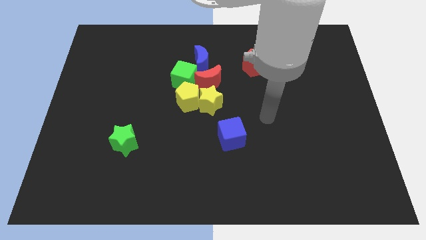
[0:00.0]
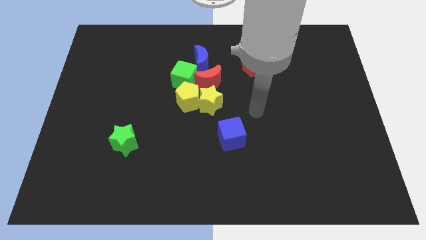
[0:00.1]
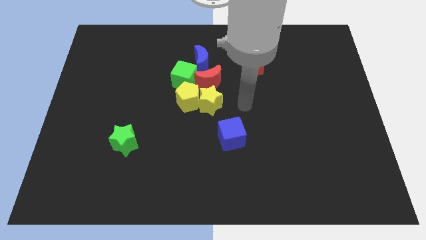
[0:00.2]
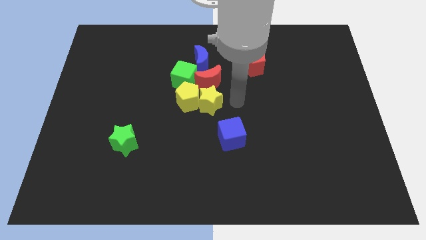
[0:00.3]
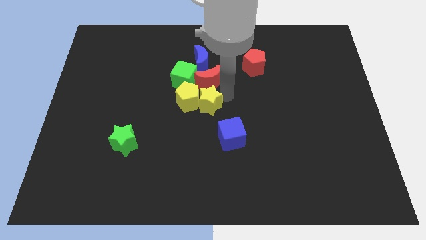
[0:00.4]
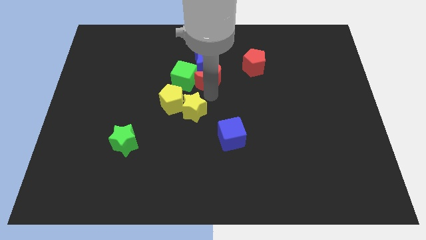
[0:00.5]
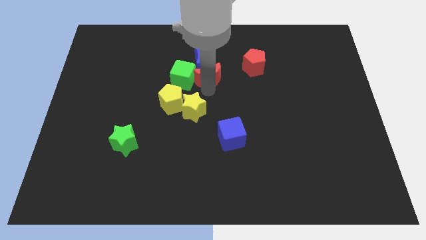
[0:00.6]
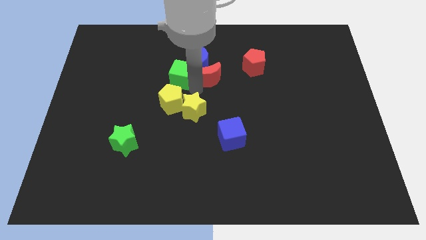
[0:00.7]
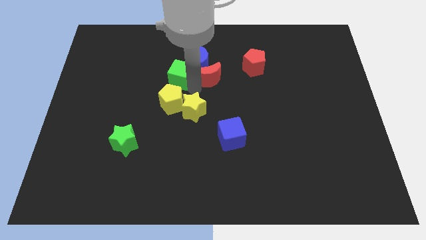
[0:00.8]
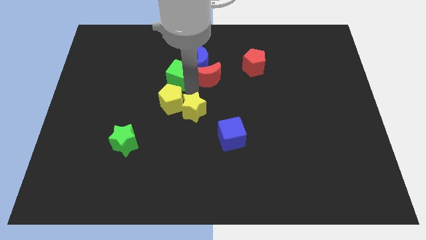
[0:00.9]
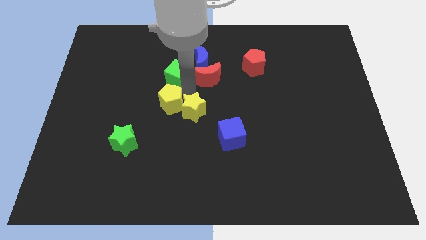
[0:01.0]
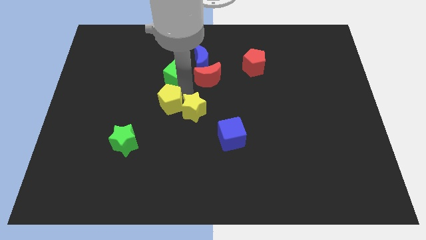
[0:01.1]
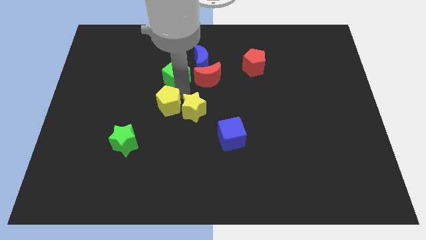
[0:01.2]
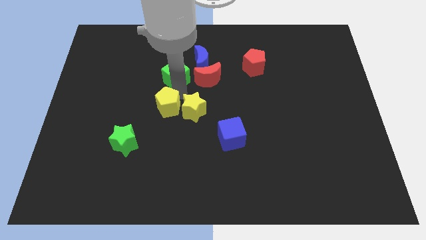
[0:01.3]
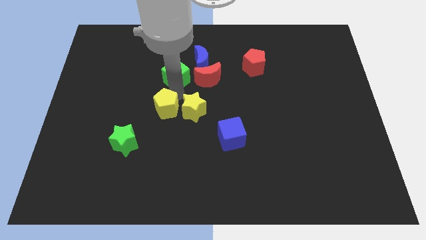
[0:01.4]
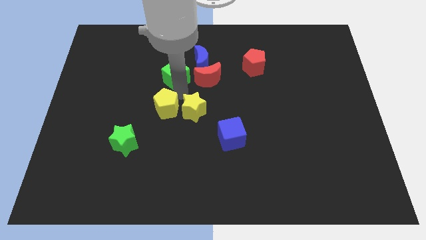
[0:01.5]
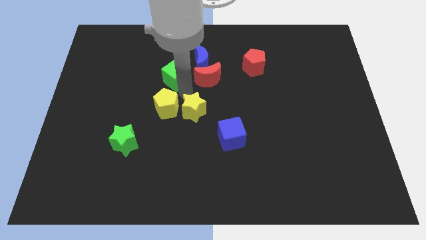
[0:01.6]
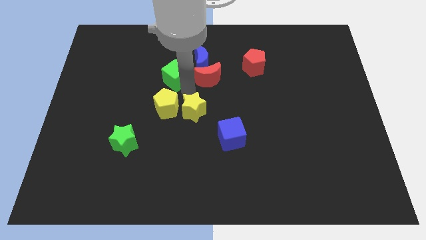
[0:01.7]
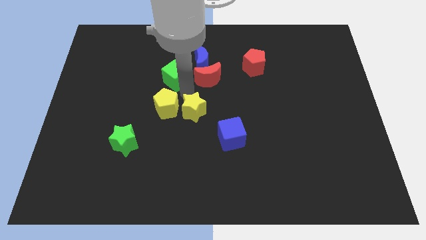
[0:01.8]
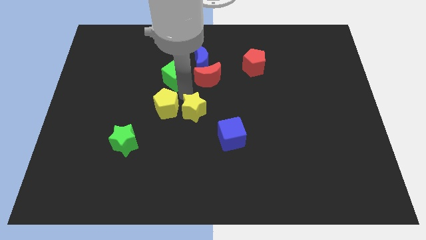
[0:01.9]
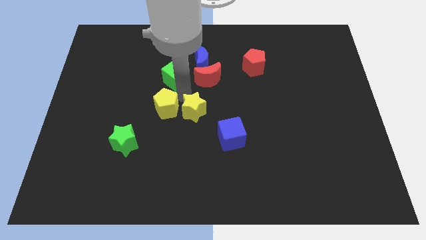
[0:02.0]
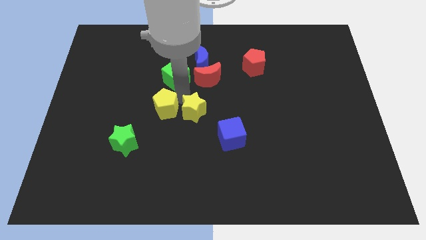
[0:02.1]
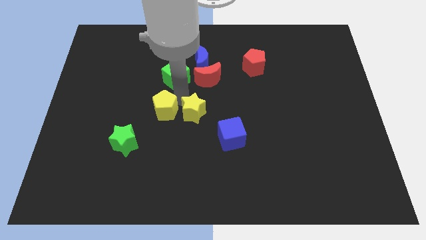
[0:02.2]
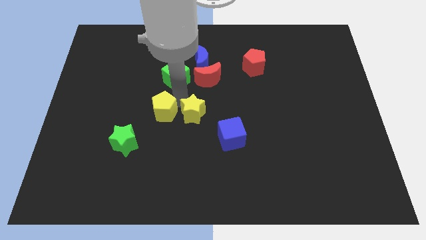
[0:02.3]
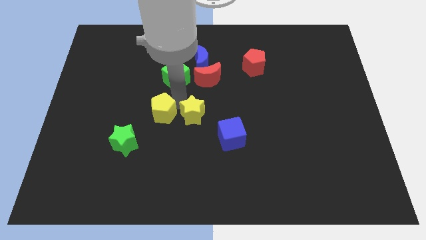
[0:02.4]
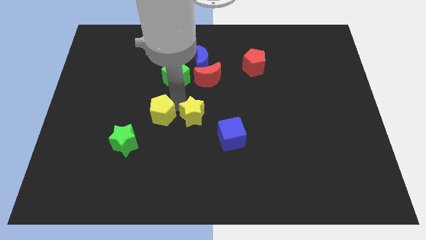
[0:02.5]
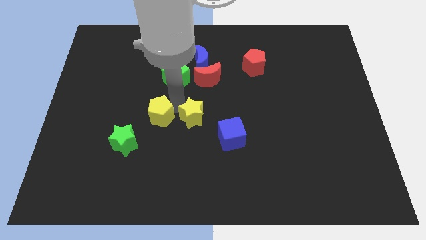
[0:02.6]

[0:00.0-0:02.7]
move the yellow pentagon away from the group of blocks

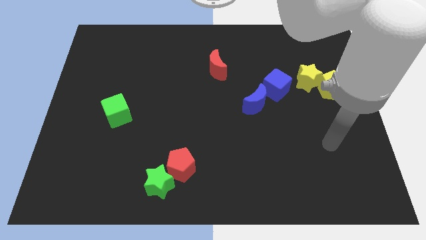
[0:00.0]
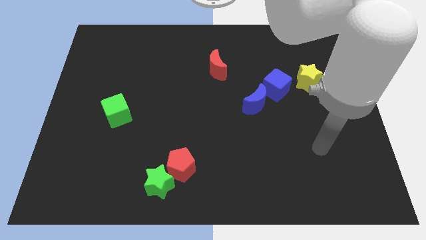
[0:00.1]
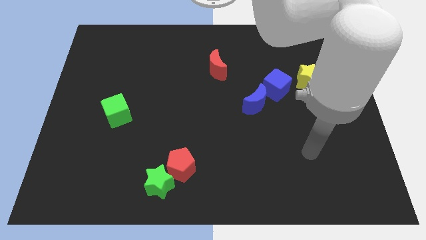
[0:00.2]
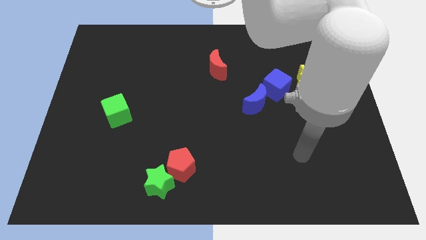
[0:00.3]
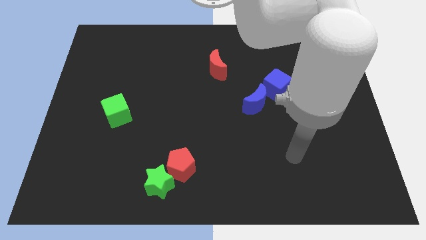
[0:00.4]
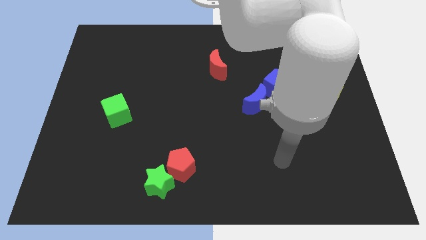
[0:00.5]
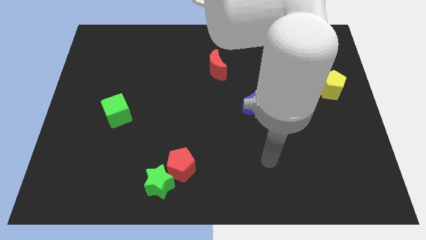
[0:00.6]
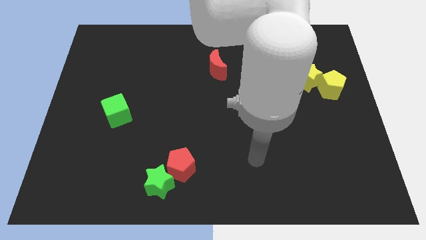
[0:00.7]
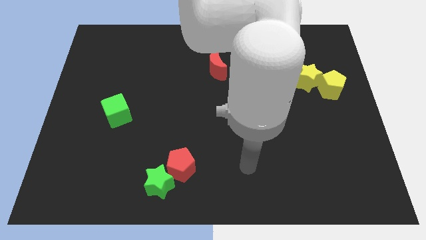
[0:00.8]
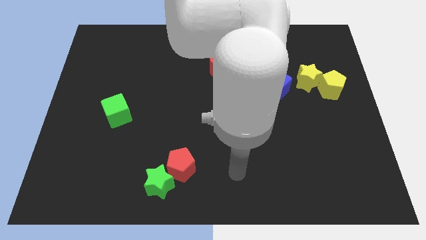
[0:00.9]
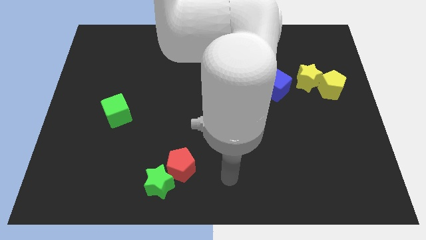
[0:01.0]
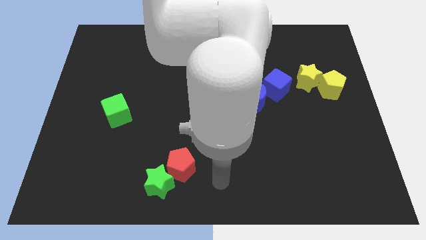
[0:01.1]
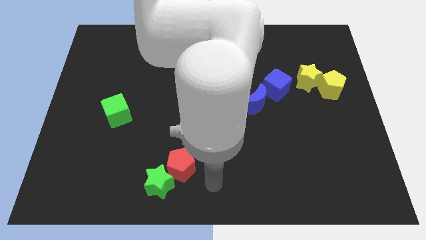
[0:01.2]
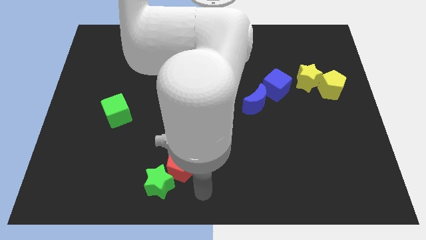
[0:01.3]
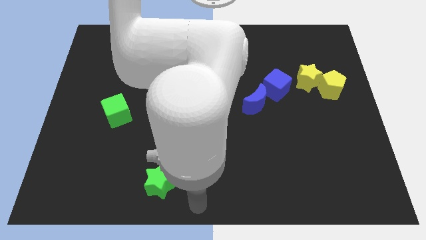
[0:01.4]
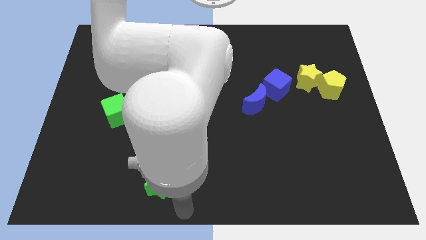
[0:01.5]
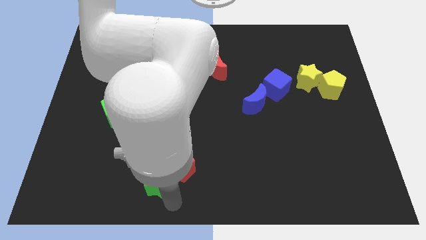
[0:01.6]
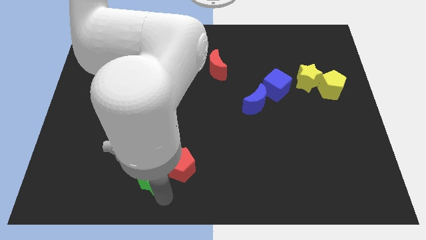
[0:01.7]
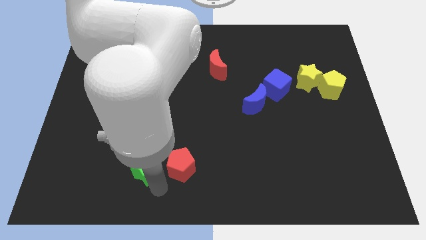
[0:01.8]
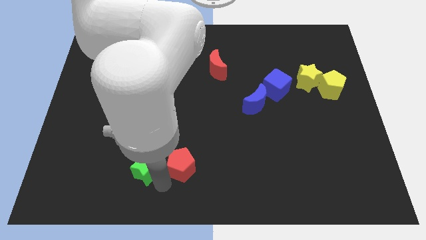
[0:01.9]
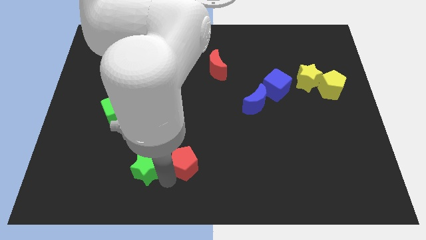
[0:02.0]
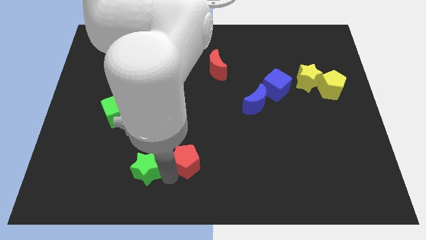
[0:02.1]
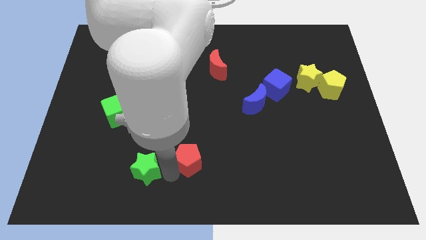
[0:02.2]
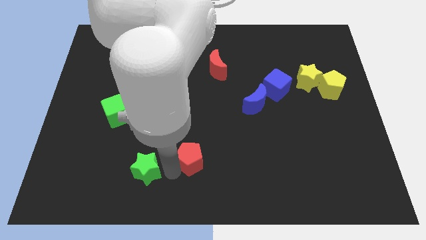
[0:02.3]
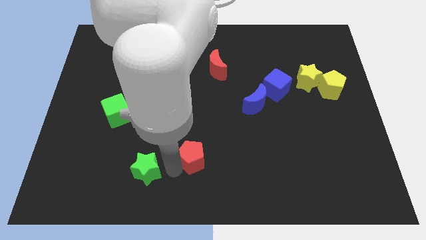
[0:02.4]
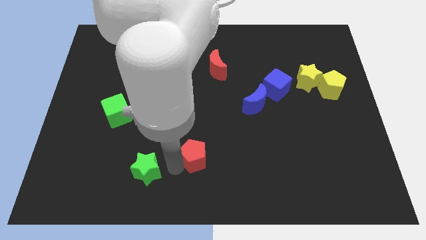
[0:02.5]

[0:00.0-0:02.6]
separate the red pentagon from the green star

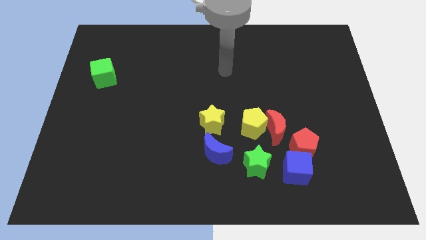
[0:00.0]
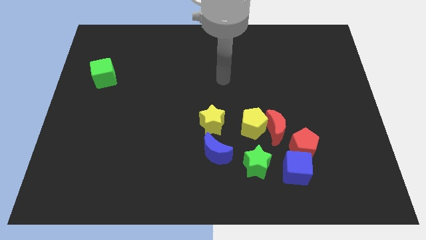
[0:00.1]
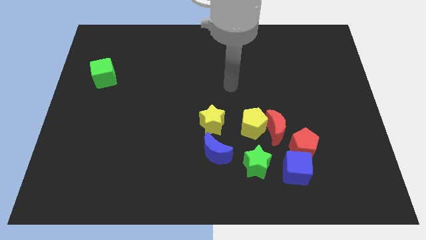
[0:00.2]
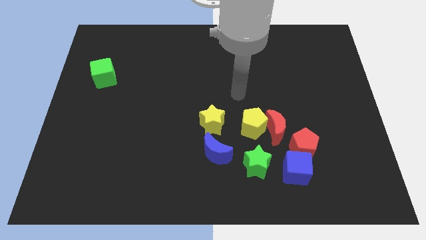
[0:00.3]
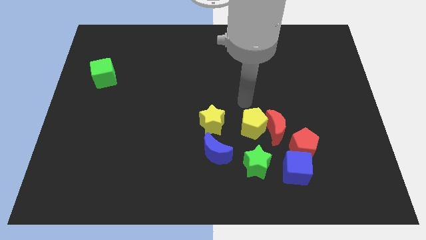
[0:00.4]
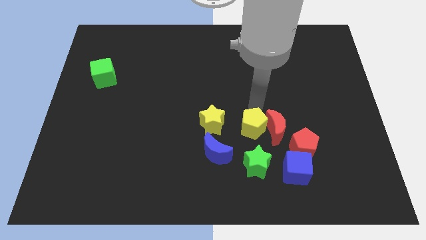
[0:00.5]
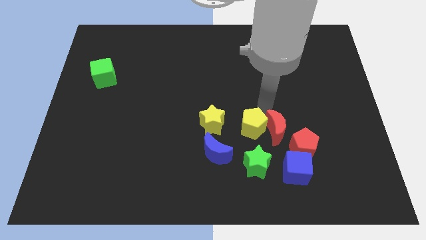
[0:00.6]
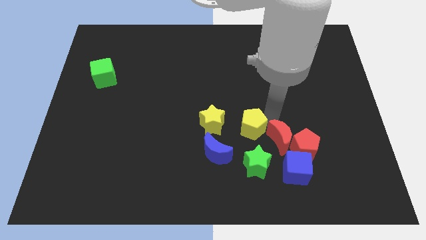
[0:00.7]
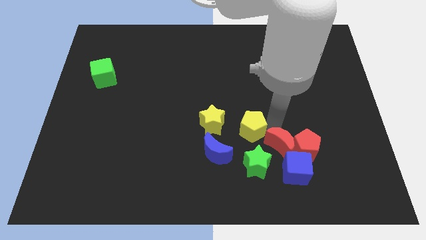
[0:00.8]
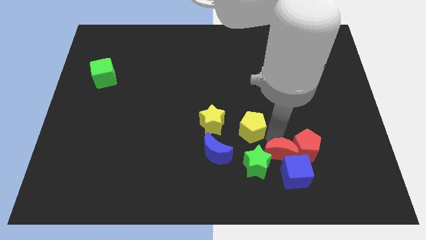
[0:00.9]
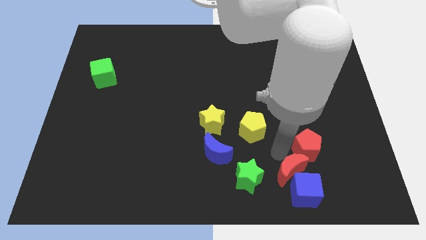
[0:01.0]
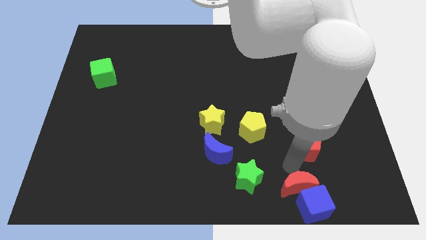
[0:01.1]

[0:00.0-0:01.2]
pull the red pentagon apart from the blue cube and red moon

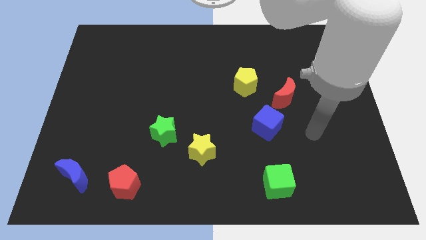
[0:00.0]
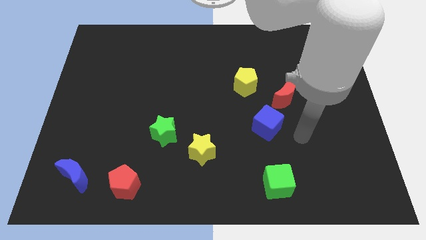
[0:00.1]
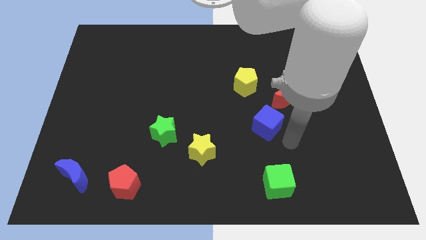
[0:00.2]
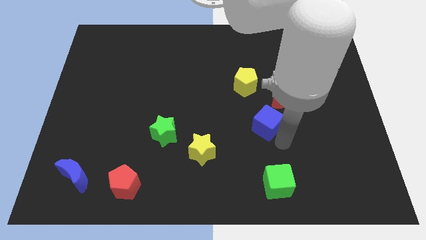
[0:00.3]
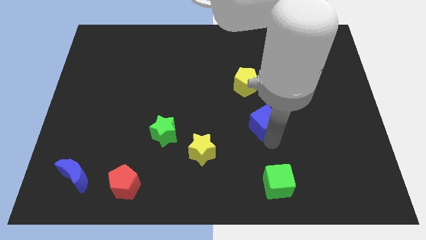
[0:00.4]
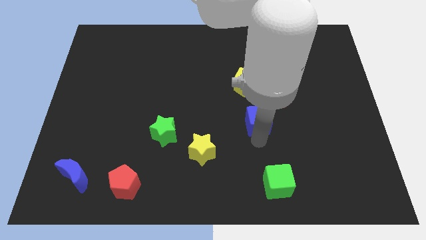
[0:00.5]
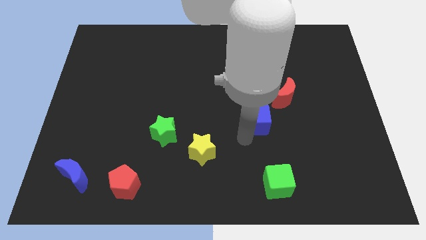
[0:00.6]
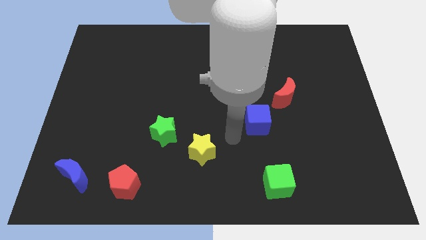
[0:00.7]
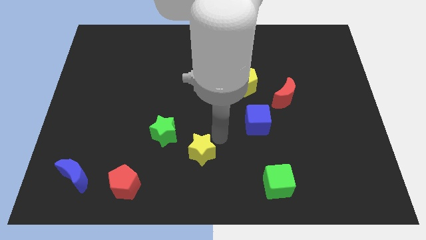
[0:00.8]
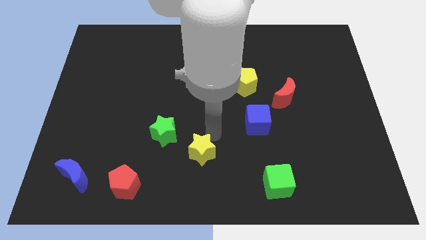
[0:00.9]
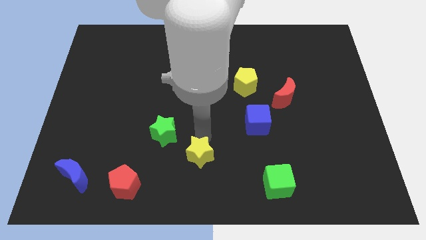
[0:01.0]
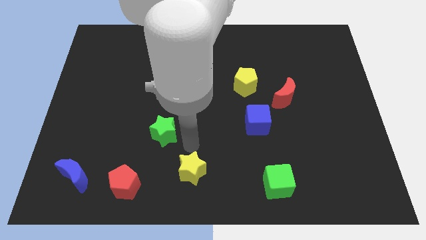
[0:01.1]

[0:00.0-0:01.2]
separate the green star from the yellow star

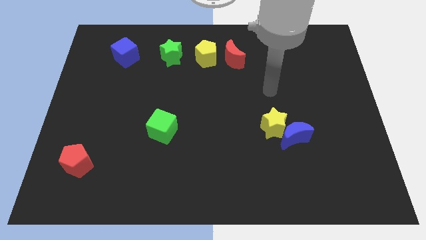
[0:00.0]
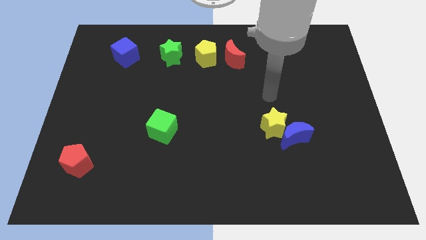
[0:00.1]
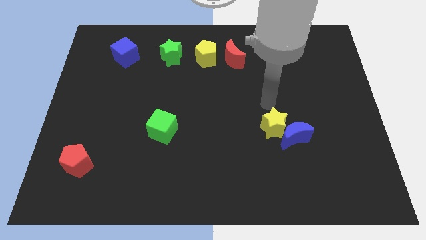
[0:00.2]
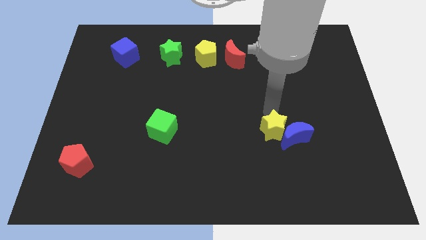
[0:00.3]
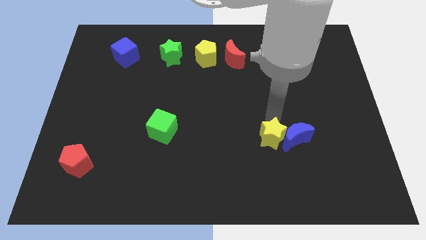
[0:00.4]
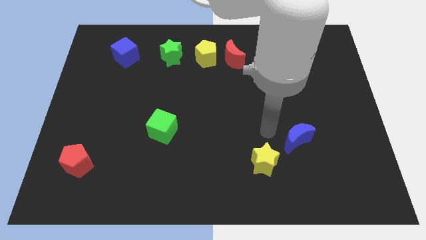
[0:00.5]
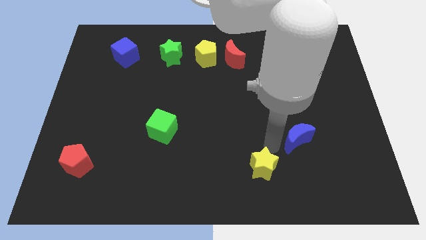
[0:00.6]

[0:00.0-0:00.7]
move the blue moon away from the yellow star

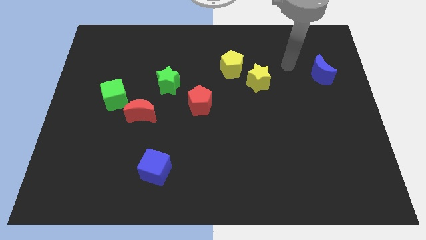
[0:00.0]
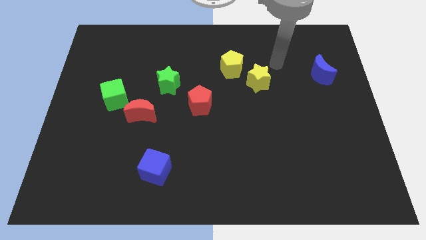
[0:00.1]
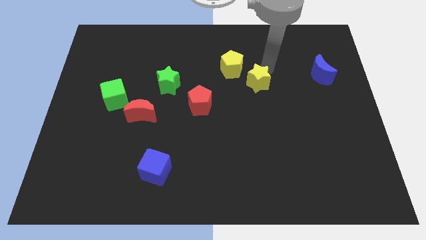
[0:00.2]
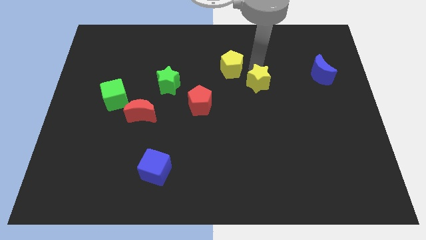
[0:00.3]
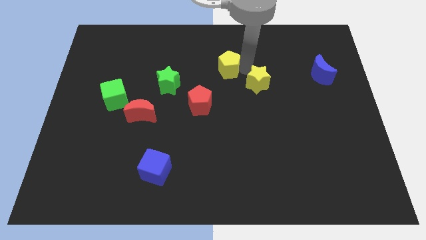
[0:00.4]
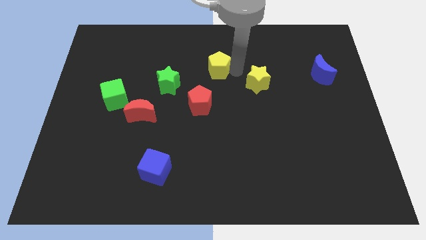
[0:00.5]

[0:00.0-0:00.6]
separate the yellow star from the yellow pentagon

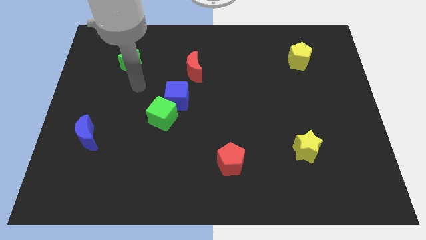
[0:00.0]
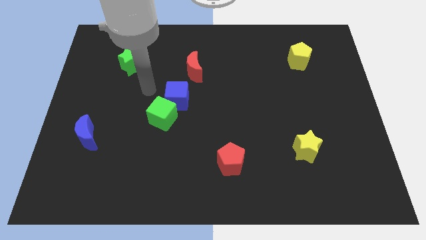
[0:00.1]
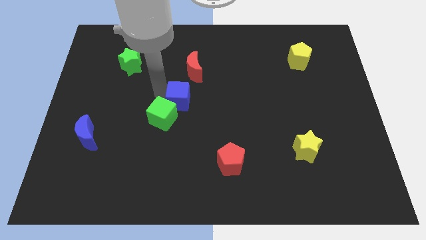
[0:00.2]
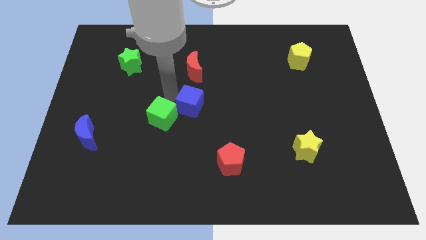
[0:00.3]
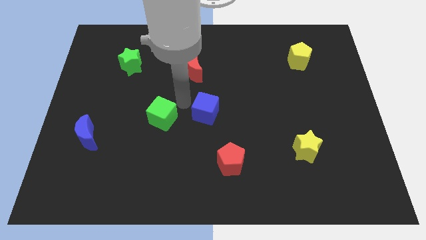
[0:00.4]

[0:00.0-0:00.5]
separate the green cube from the blue cube
